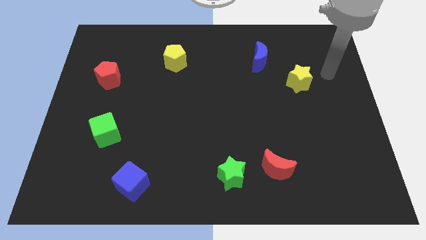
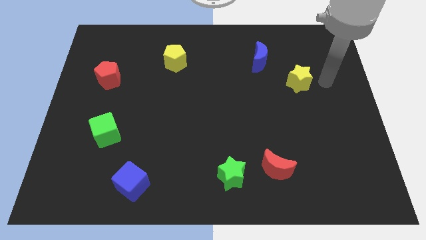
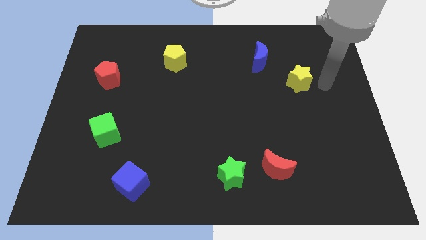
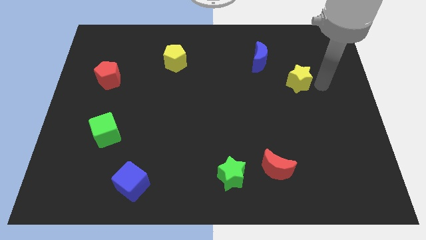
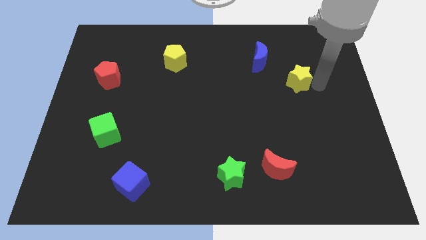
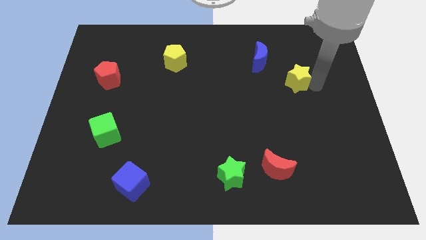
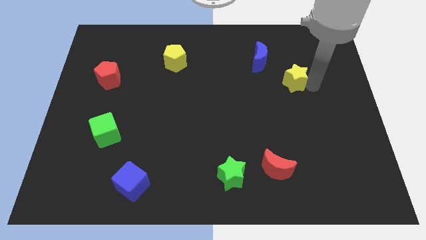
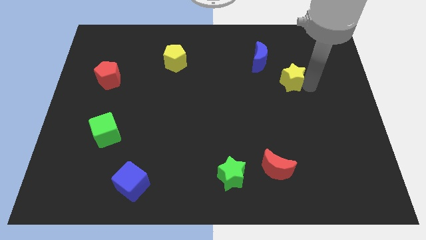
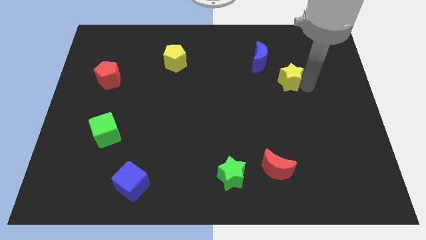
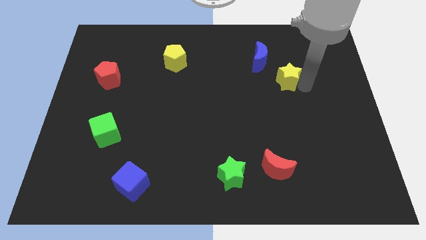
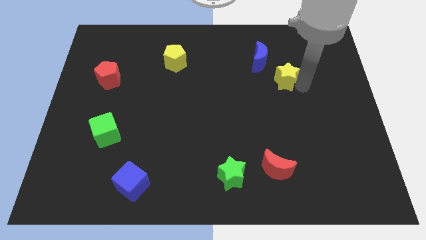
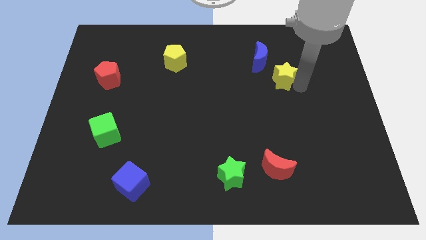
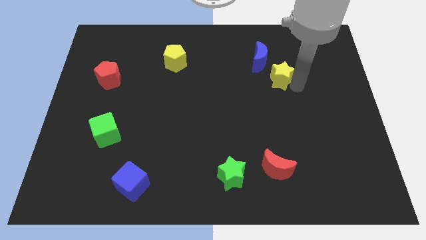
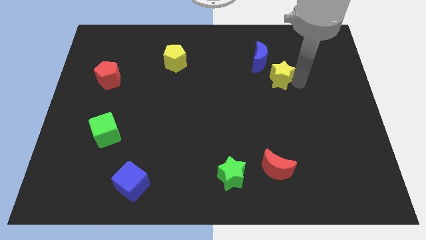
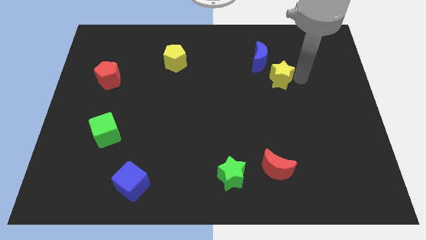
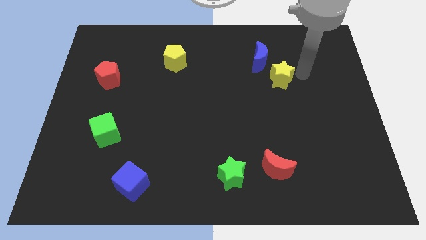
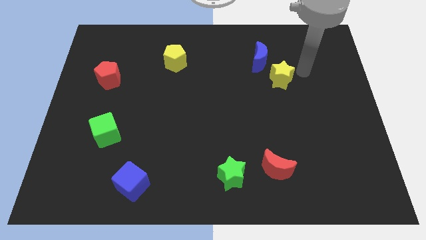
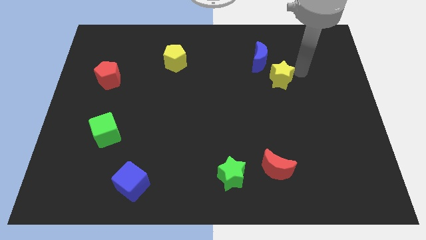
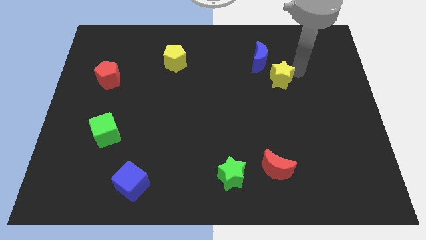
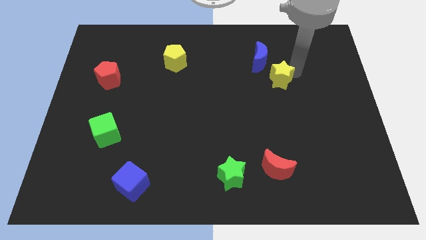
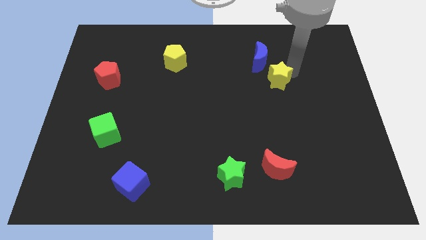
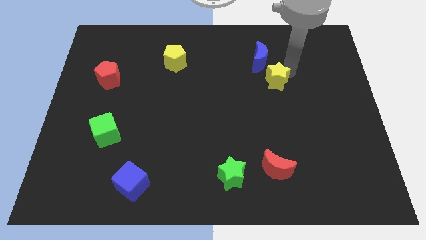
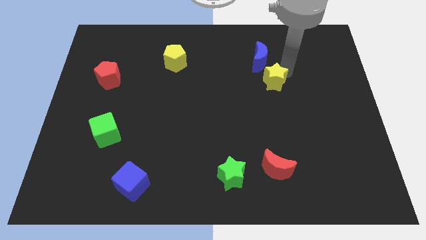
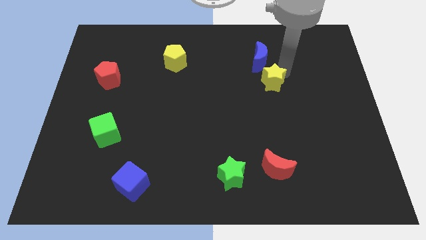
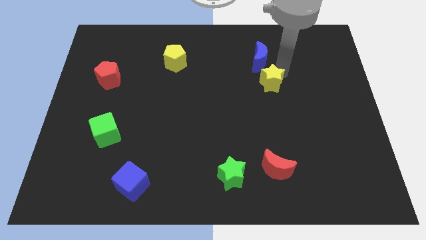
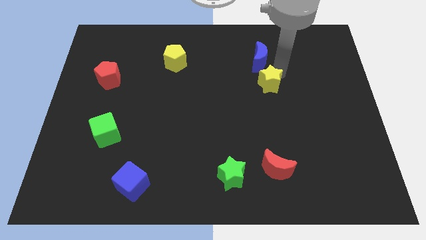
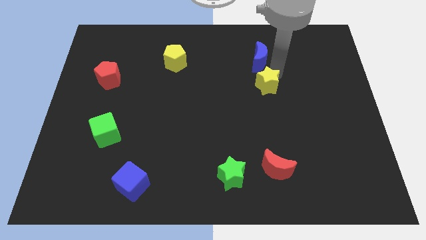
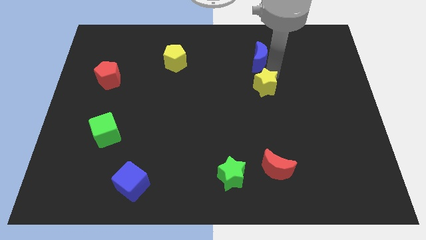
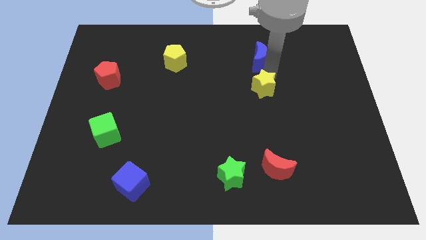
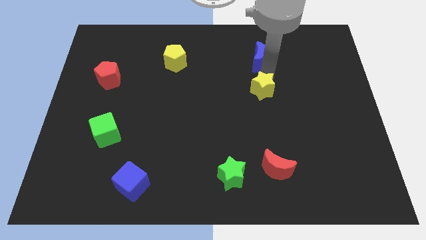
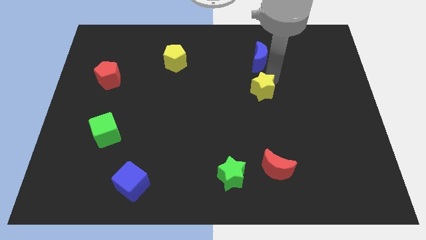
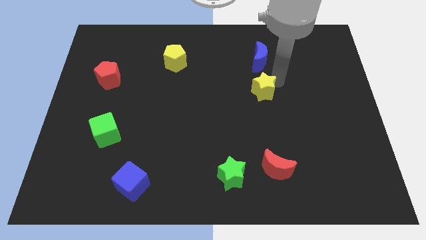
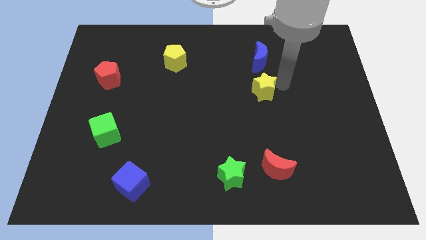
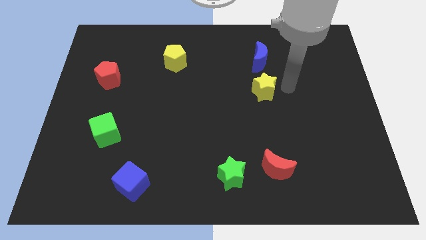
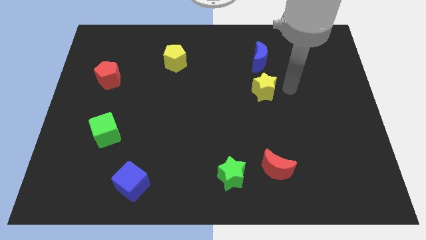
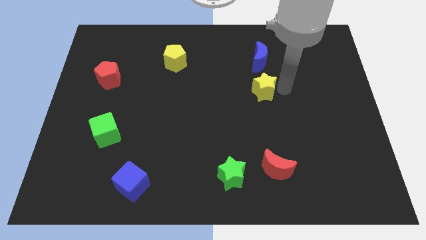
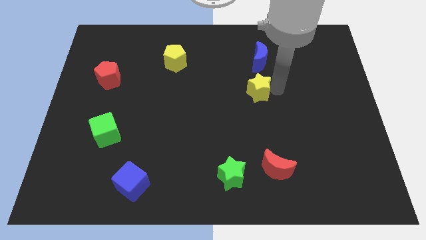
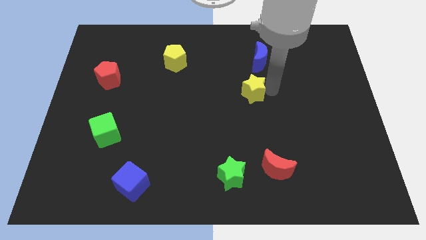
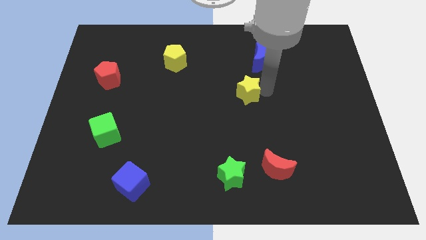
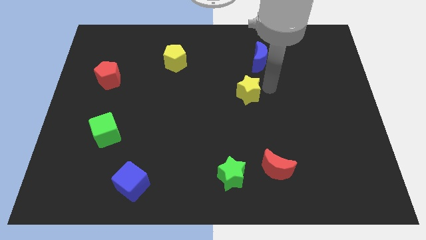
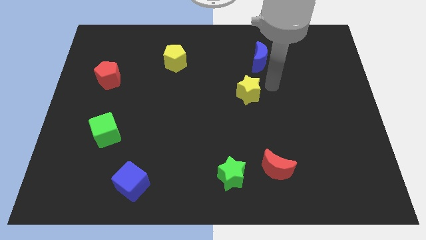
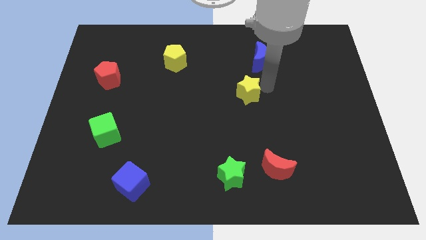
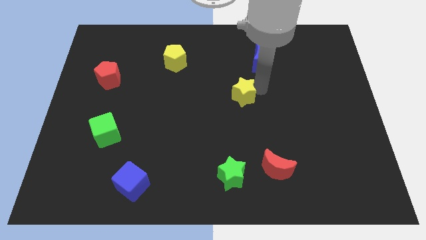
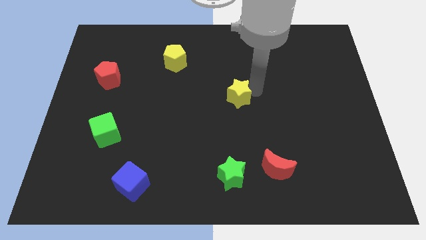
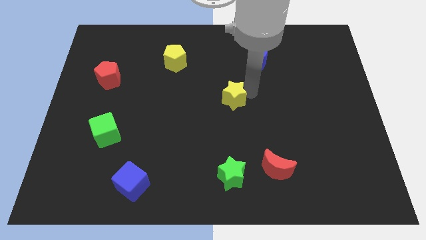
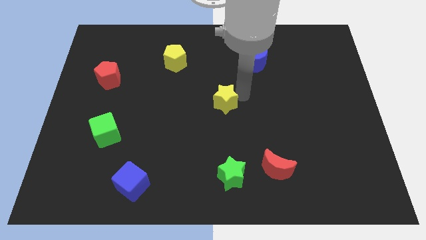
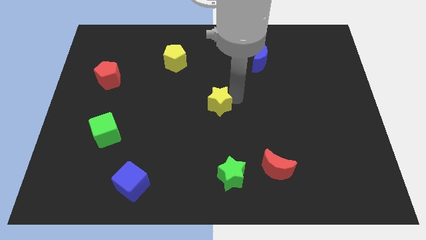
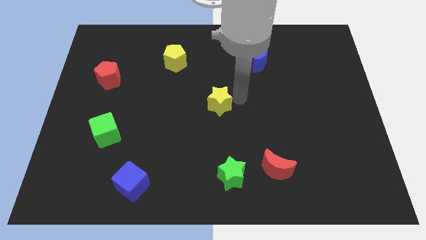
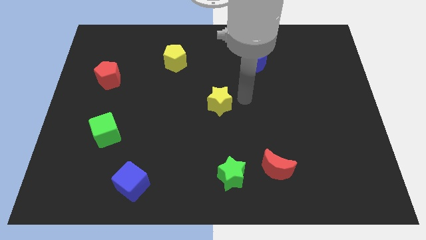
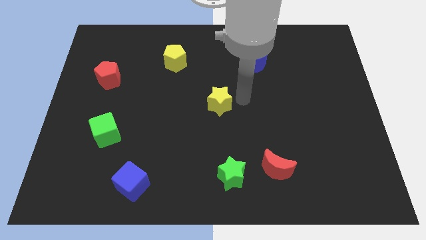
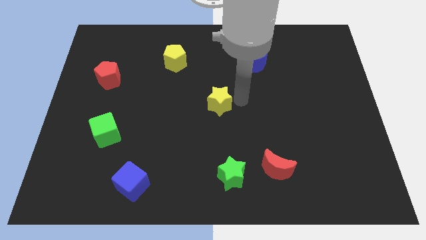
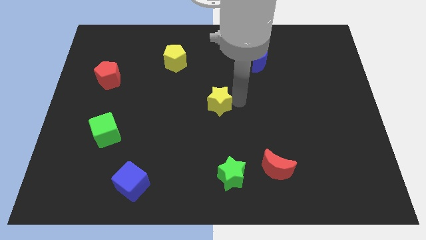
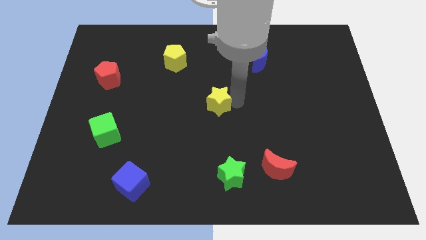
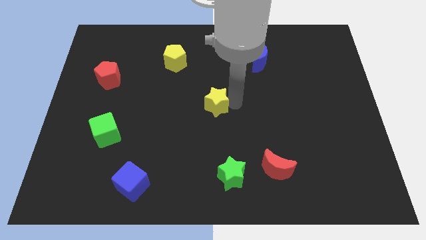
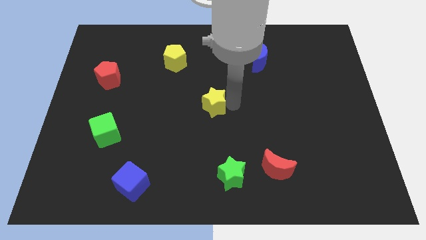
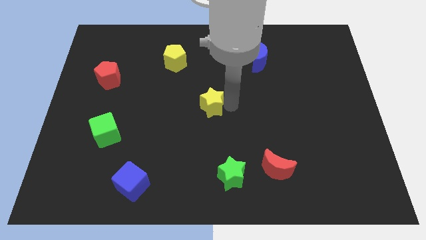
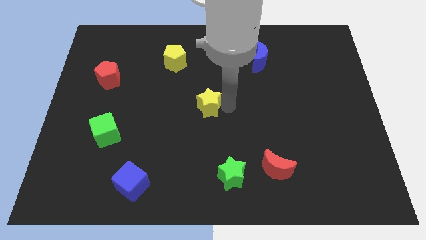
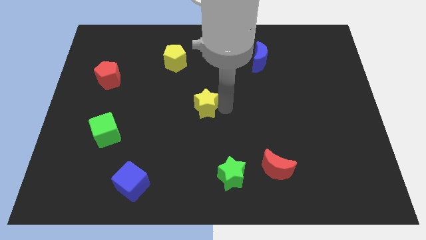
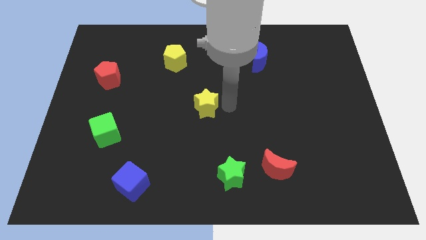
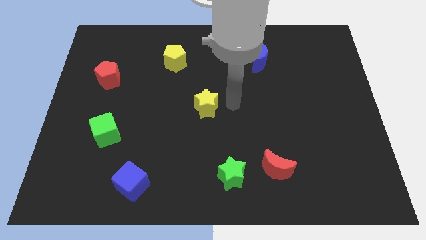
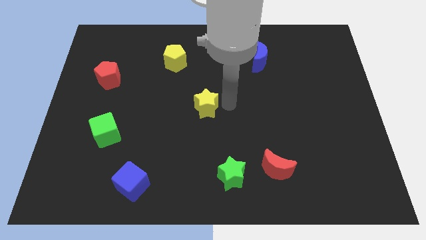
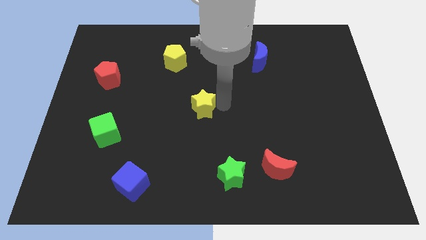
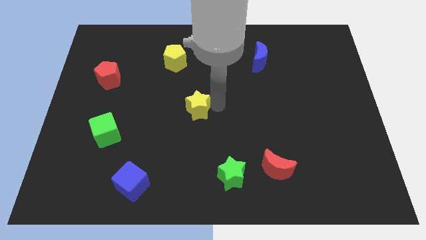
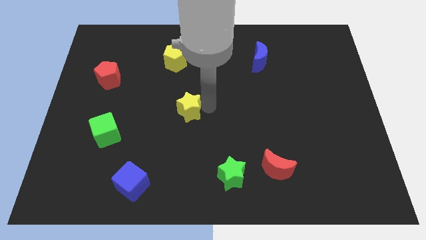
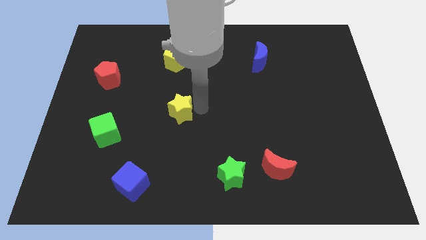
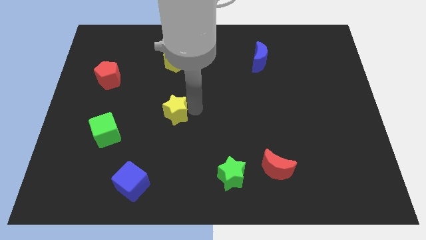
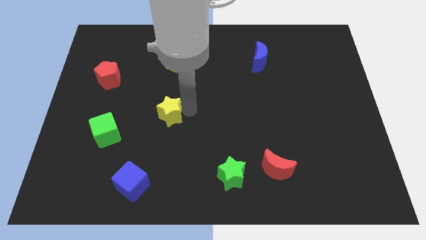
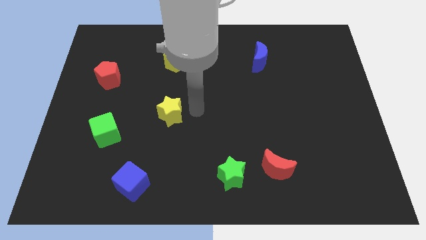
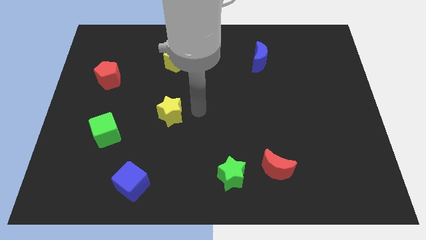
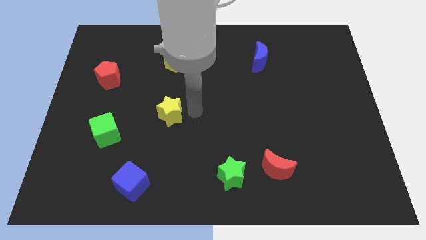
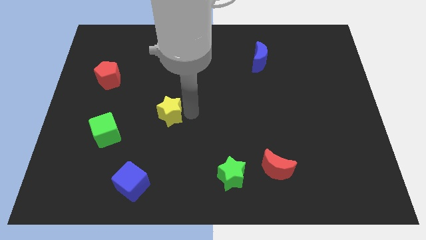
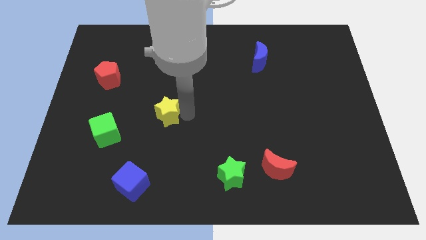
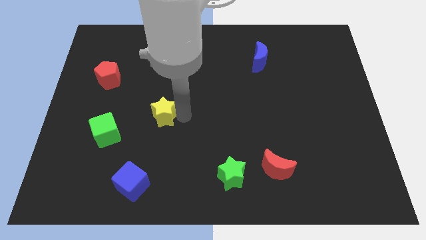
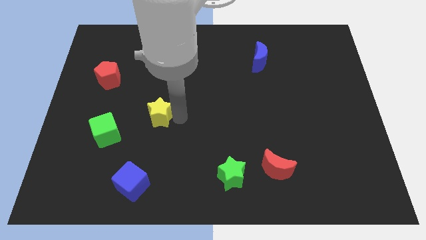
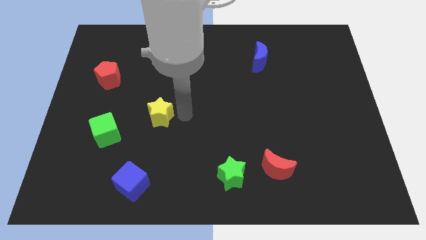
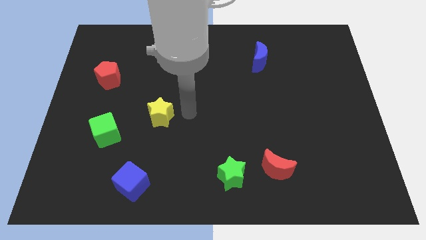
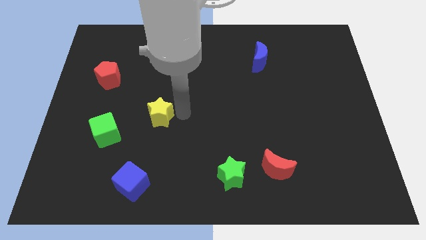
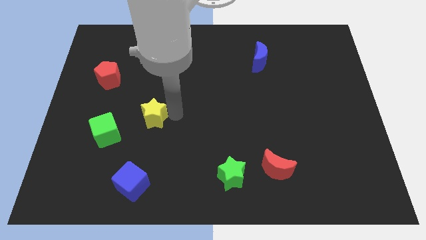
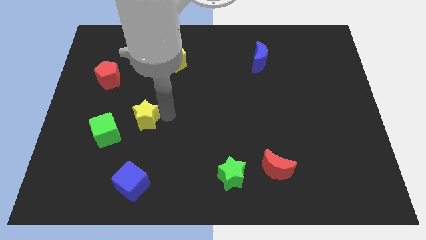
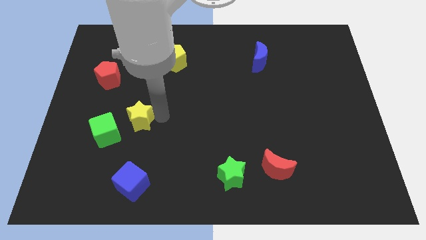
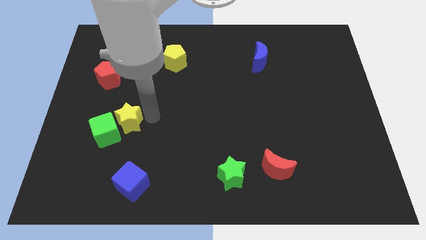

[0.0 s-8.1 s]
slide the yellow star towards the green cube
